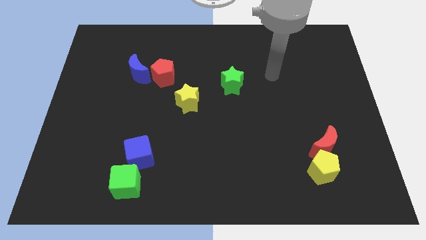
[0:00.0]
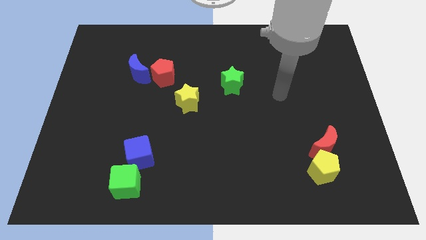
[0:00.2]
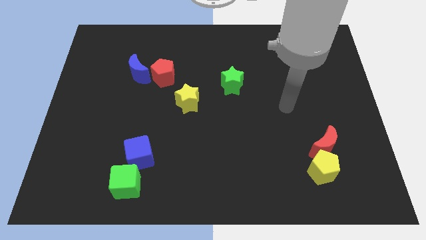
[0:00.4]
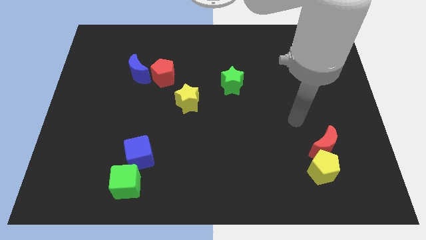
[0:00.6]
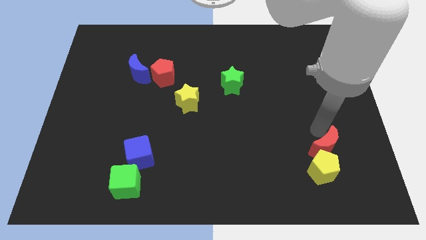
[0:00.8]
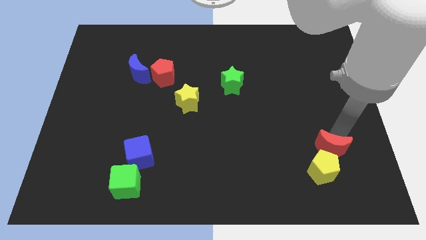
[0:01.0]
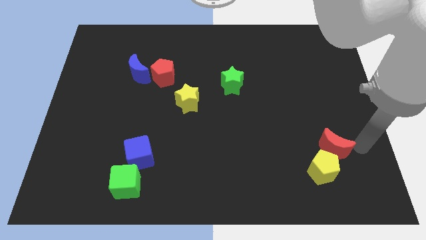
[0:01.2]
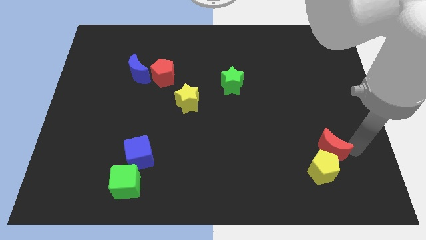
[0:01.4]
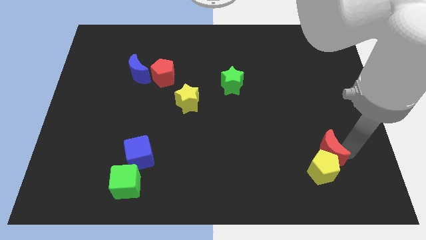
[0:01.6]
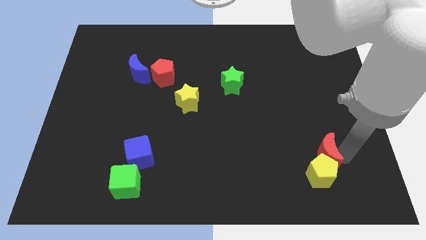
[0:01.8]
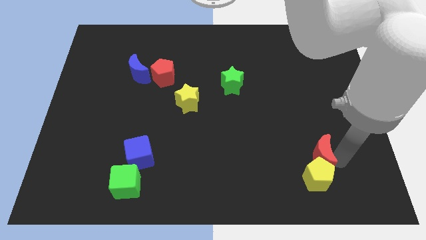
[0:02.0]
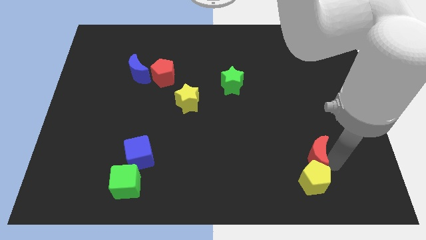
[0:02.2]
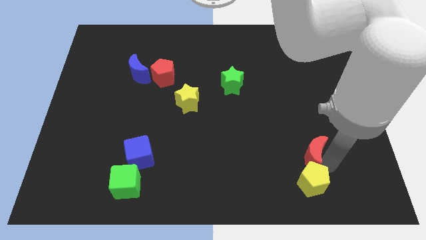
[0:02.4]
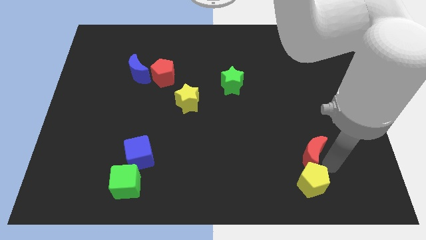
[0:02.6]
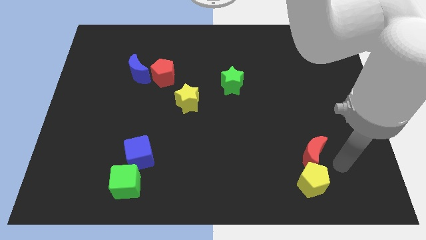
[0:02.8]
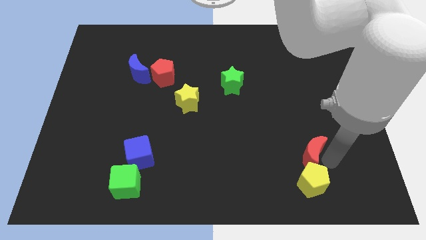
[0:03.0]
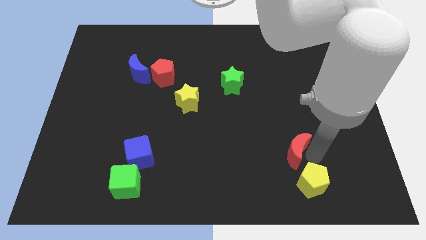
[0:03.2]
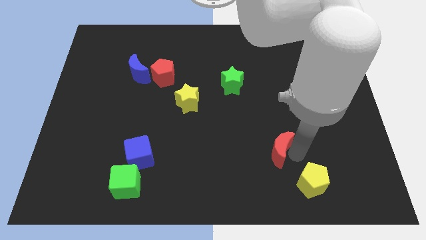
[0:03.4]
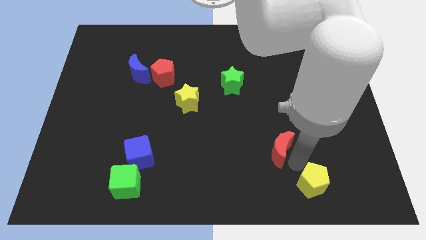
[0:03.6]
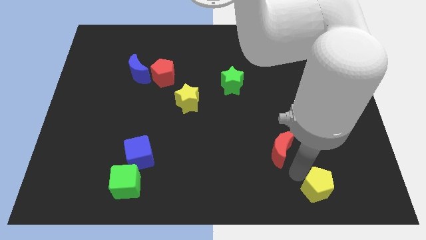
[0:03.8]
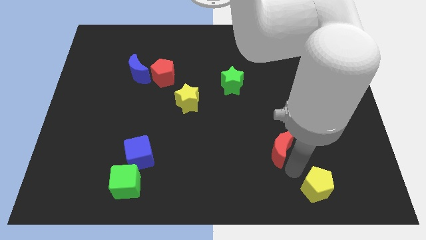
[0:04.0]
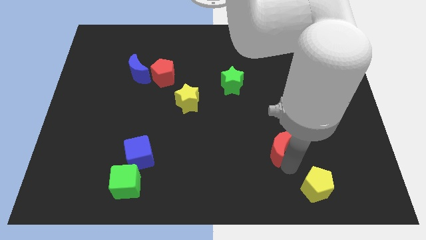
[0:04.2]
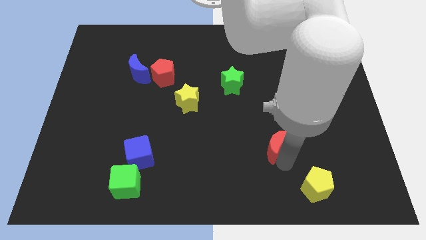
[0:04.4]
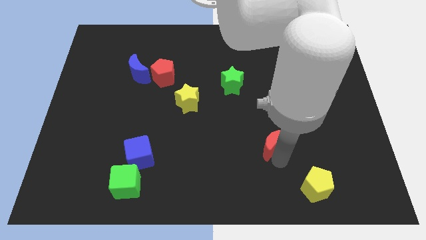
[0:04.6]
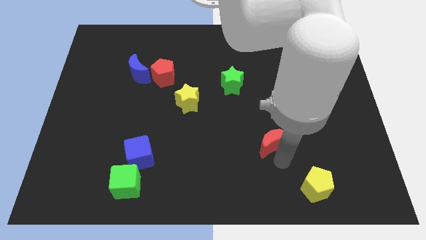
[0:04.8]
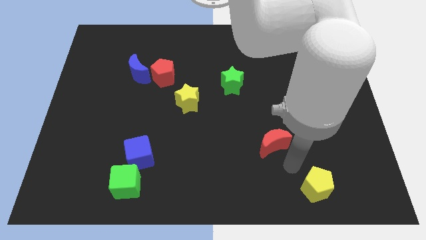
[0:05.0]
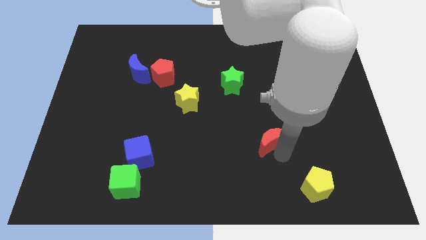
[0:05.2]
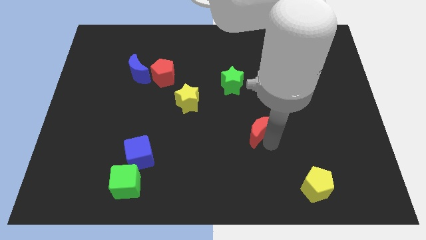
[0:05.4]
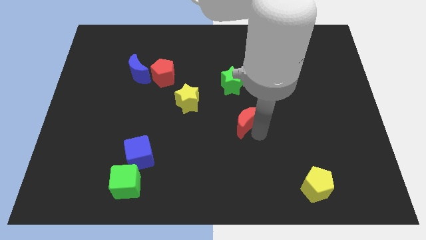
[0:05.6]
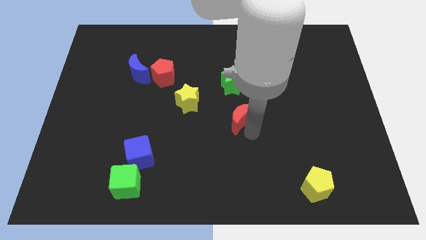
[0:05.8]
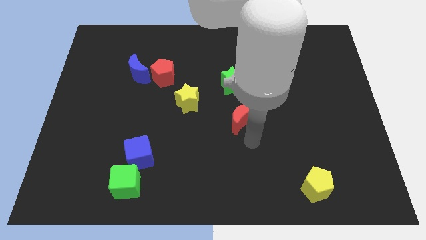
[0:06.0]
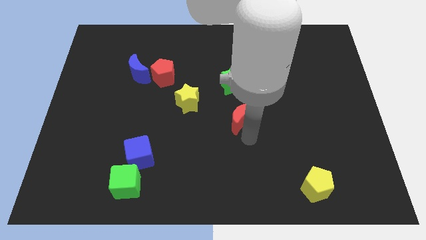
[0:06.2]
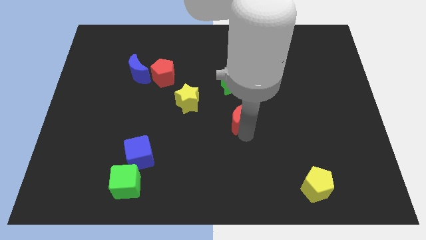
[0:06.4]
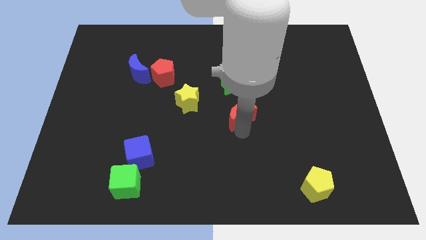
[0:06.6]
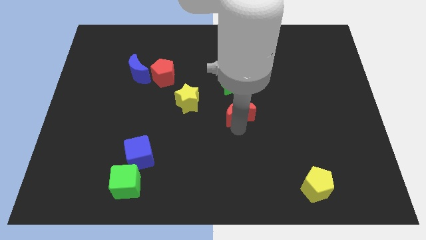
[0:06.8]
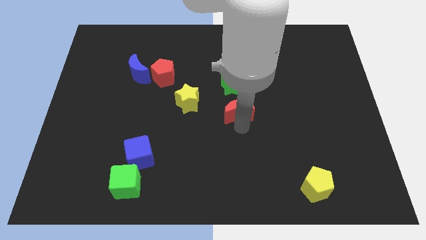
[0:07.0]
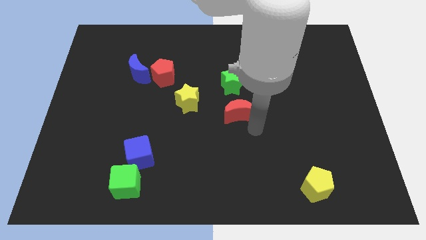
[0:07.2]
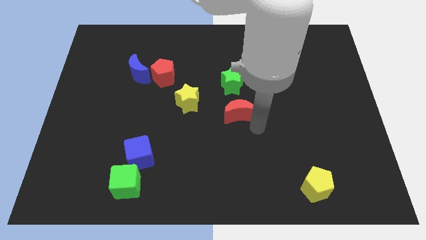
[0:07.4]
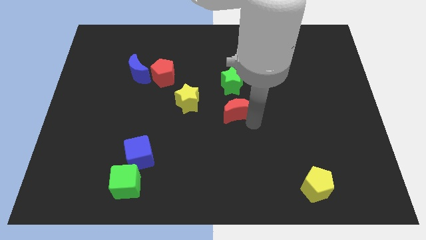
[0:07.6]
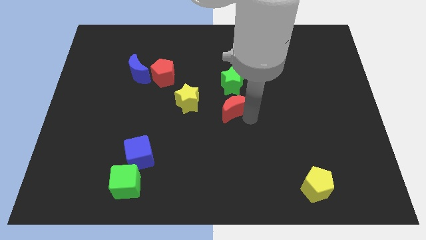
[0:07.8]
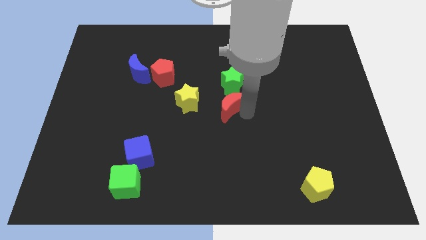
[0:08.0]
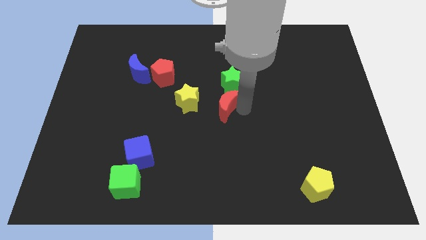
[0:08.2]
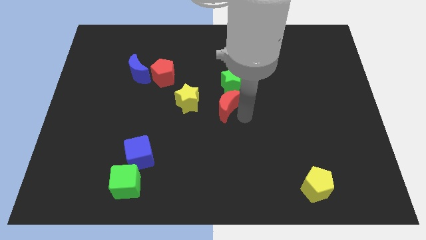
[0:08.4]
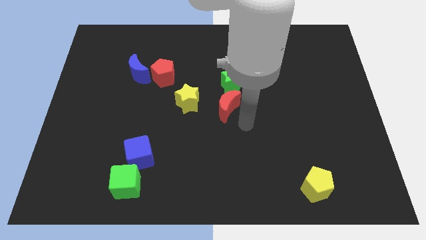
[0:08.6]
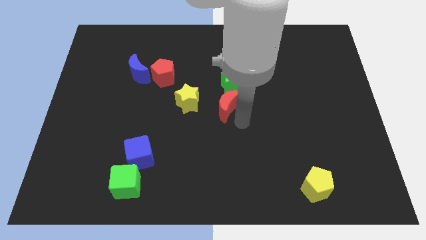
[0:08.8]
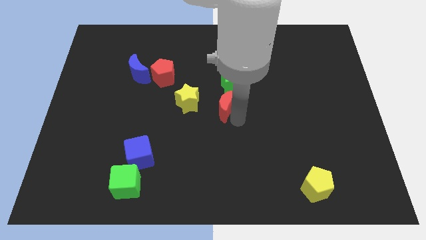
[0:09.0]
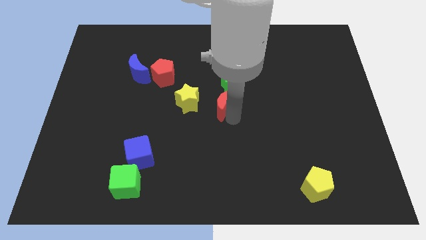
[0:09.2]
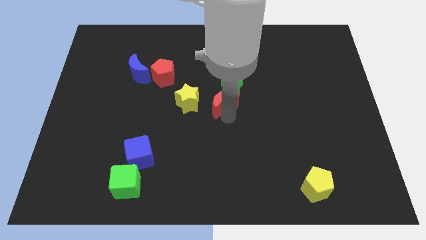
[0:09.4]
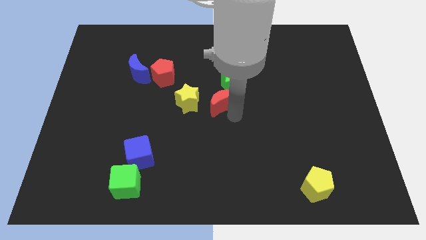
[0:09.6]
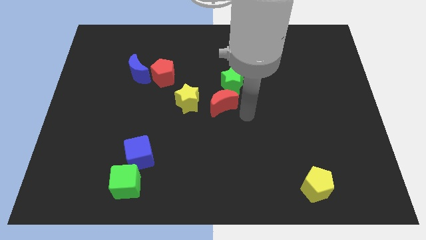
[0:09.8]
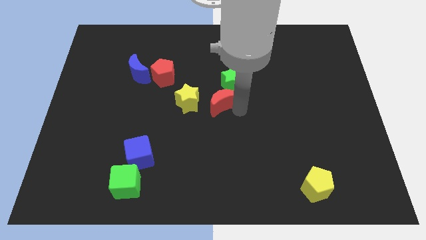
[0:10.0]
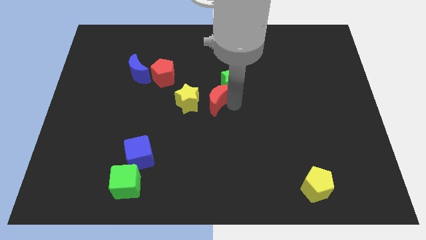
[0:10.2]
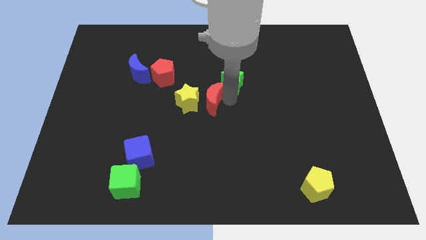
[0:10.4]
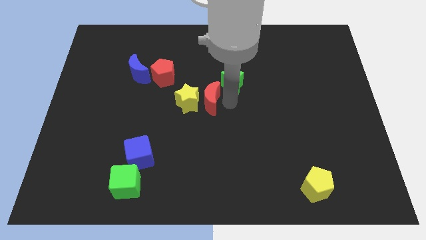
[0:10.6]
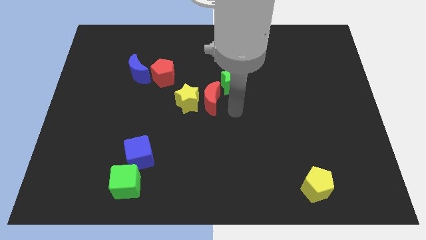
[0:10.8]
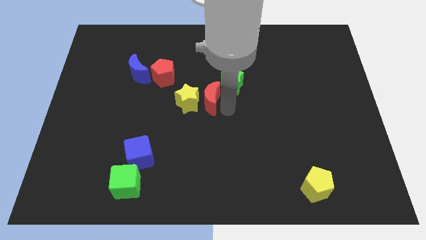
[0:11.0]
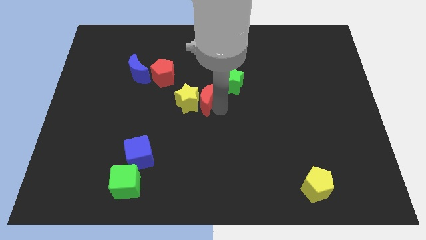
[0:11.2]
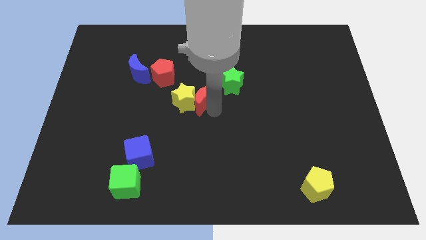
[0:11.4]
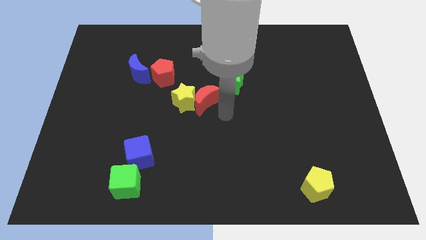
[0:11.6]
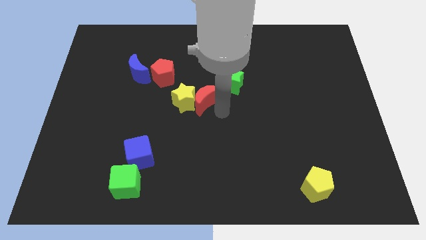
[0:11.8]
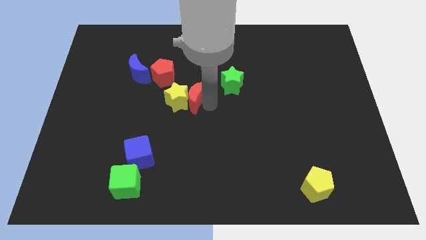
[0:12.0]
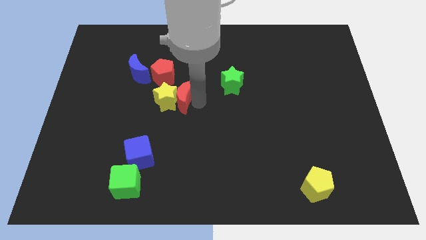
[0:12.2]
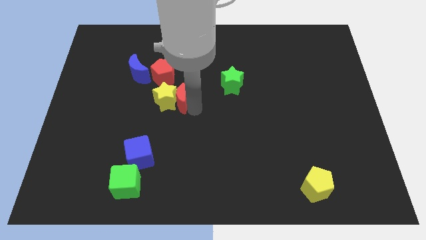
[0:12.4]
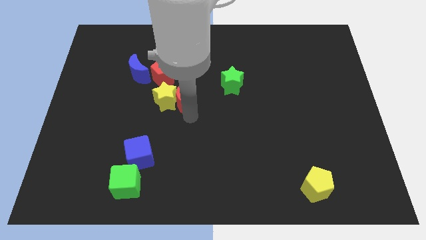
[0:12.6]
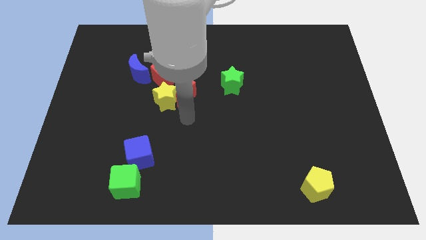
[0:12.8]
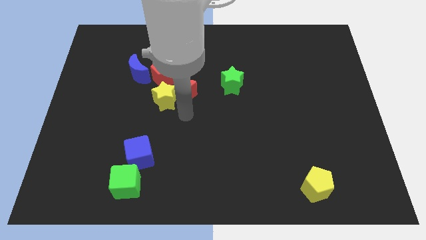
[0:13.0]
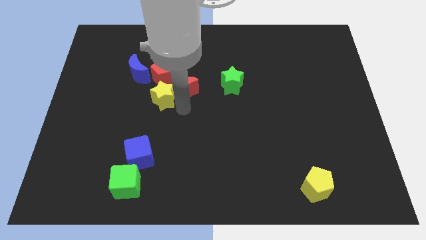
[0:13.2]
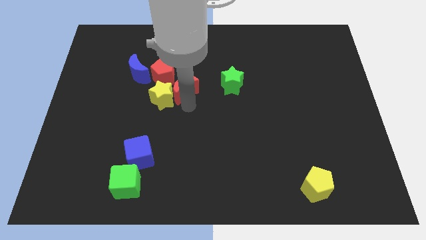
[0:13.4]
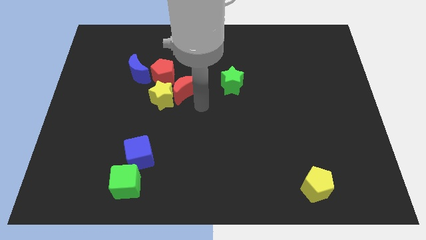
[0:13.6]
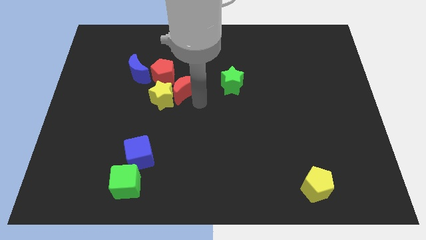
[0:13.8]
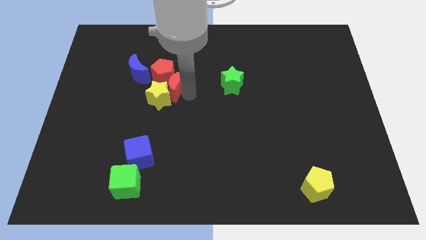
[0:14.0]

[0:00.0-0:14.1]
move the red moon to the red pentagon

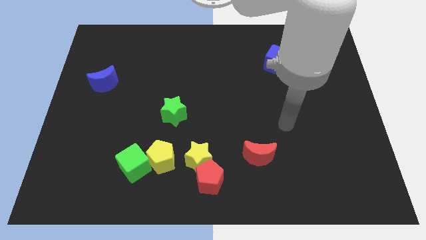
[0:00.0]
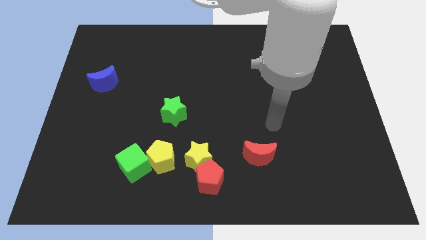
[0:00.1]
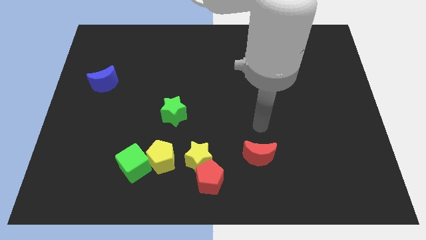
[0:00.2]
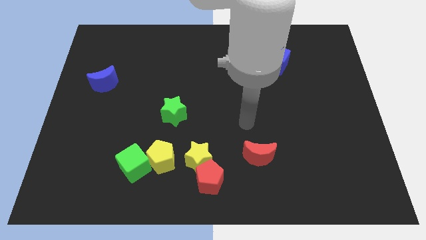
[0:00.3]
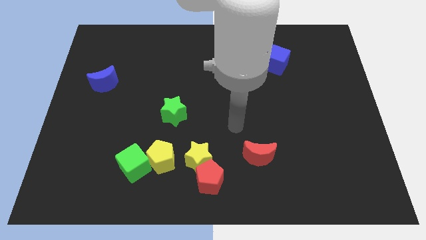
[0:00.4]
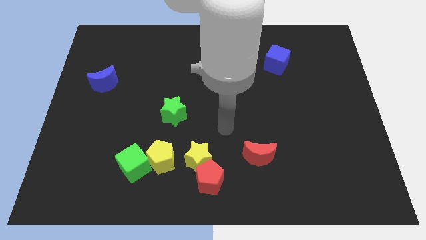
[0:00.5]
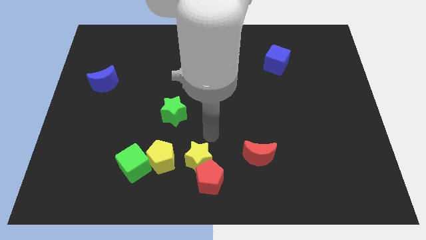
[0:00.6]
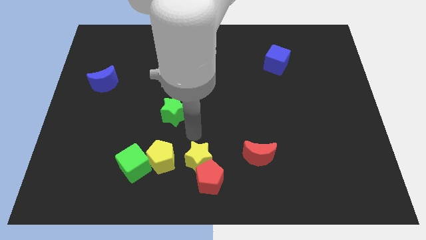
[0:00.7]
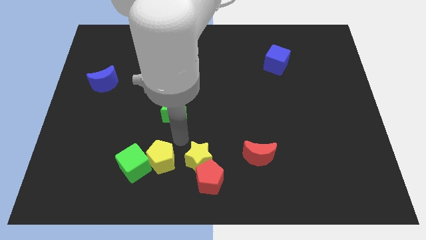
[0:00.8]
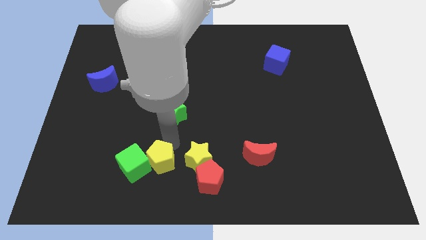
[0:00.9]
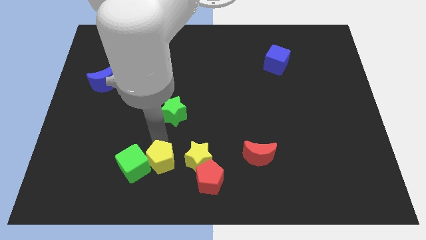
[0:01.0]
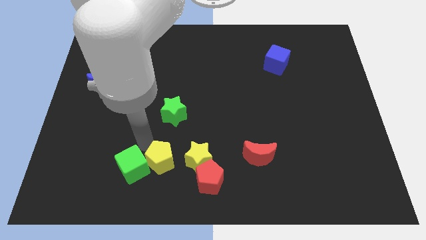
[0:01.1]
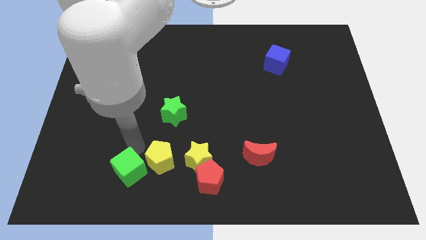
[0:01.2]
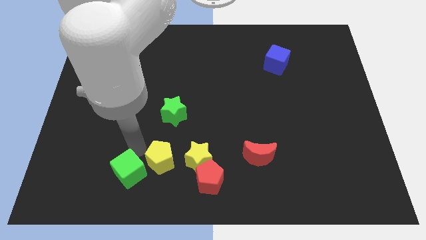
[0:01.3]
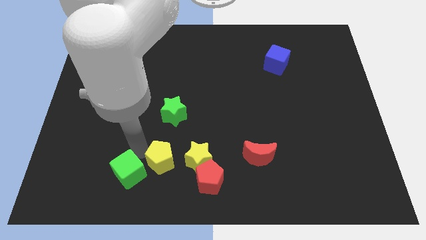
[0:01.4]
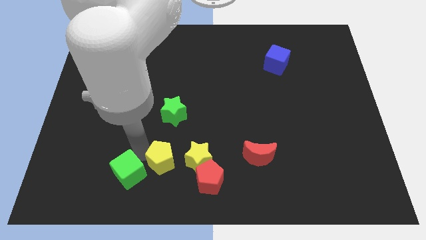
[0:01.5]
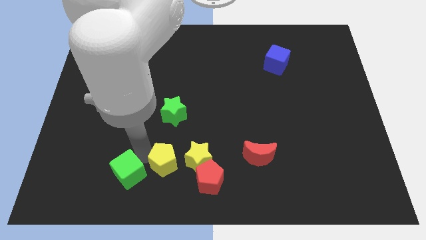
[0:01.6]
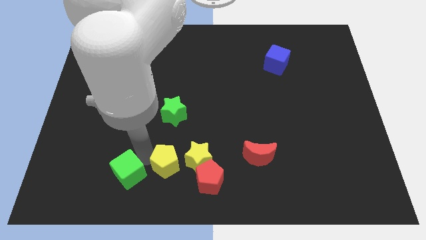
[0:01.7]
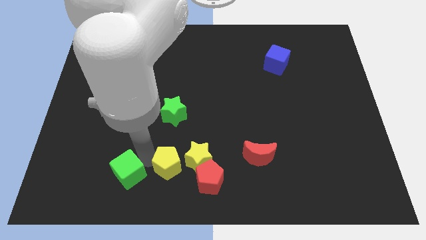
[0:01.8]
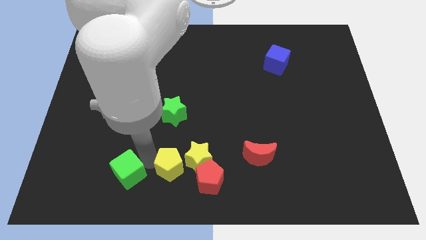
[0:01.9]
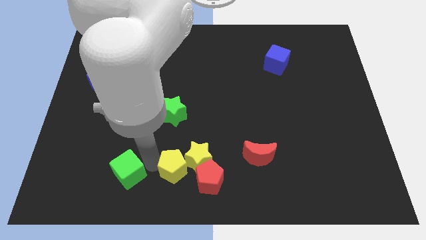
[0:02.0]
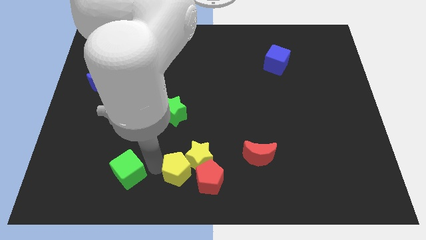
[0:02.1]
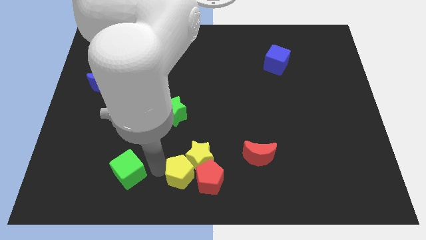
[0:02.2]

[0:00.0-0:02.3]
slide the yellow pentagon towards the red pentagon
